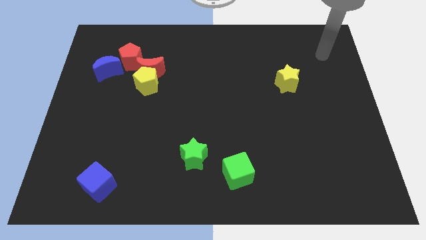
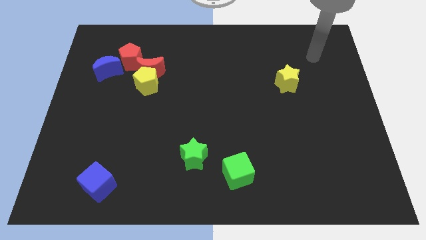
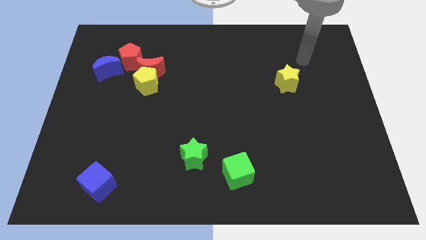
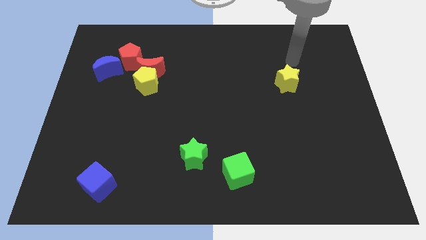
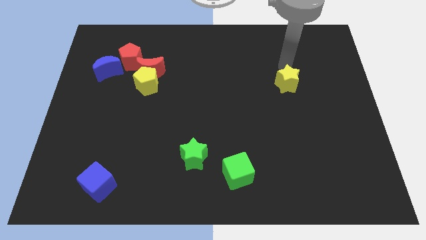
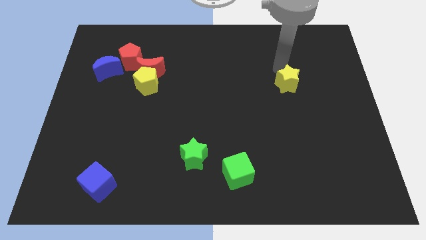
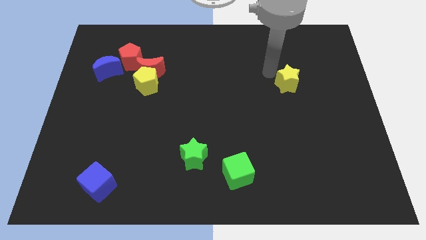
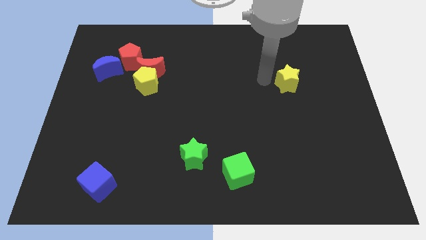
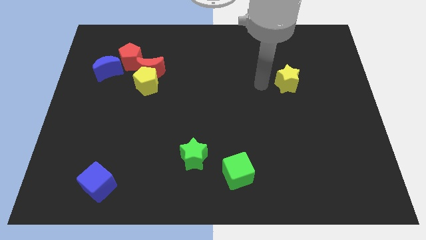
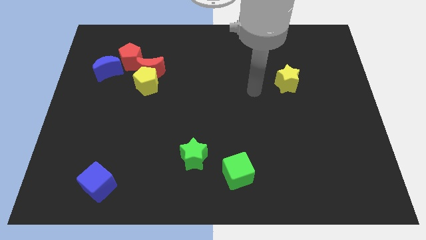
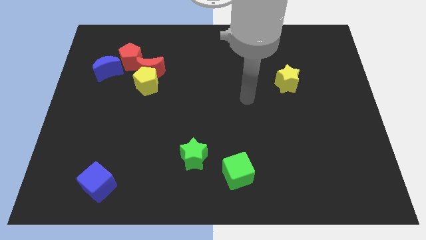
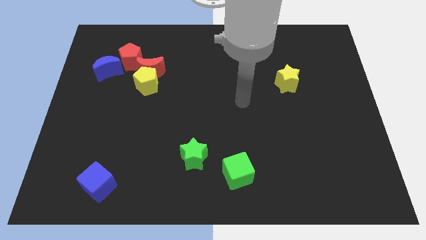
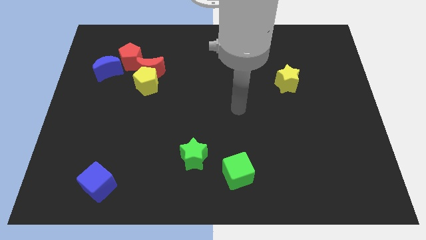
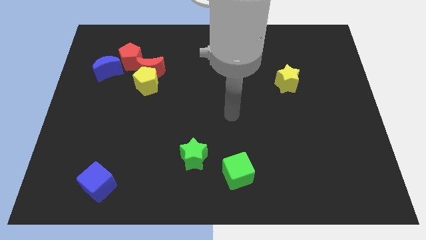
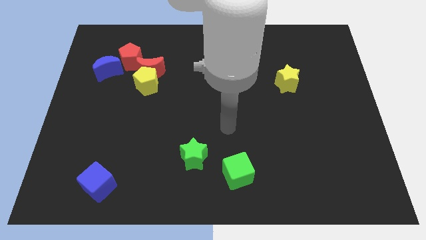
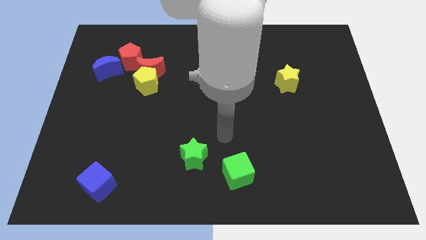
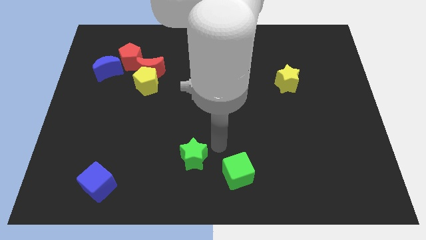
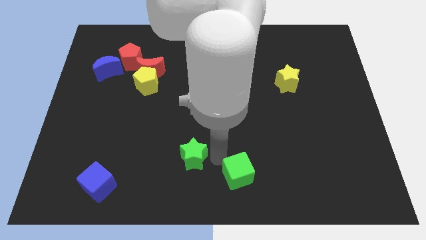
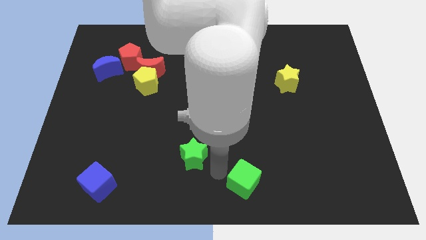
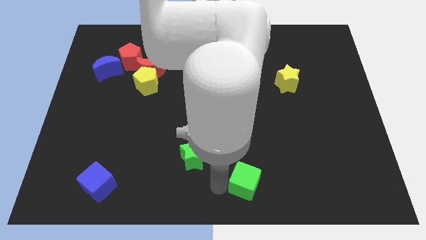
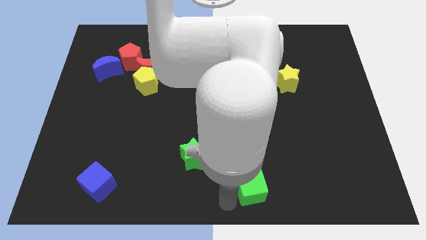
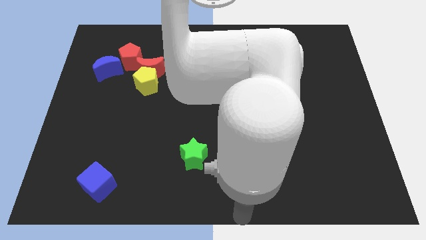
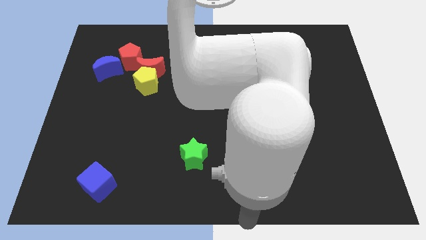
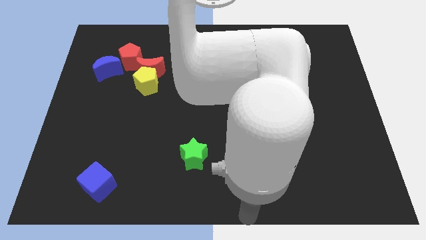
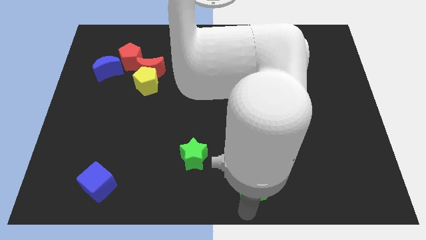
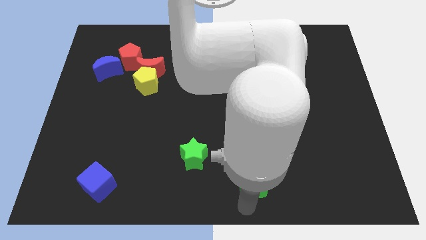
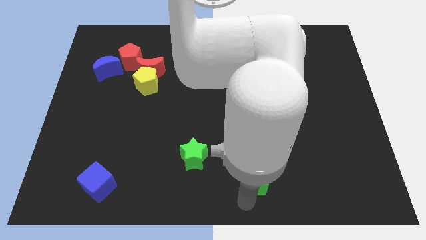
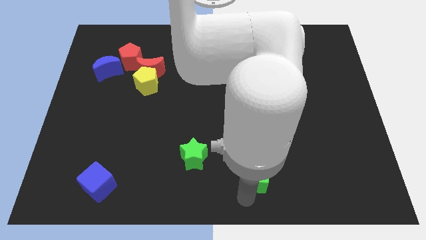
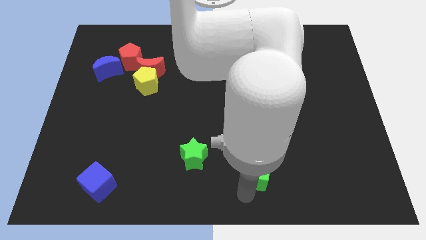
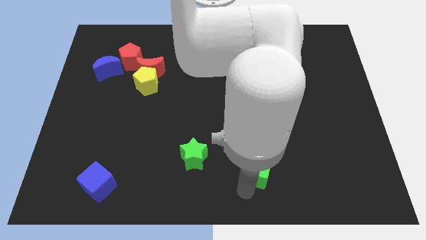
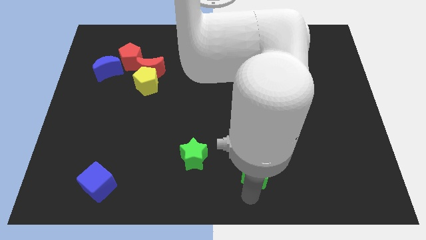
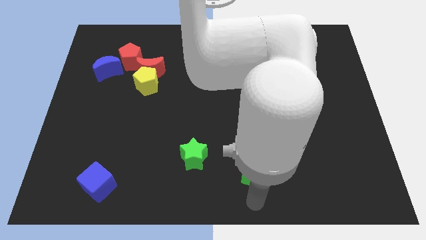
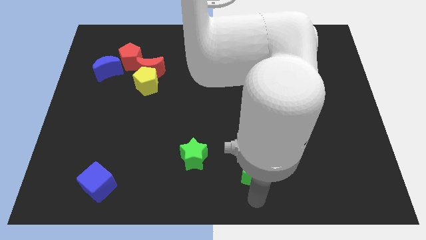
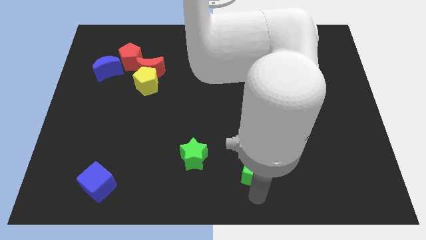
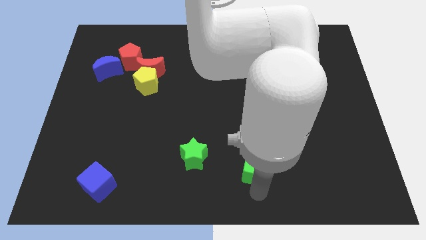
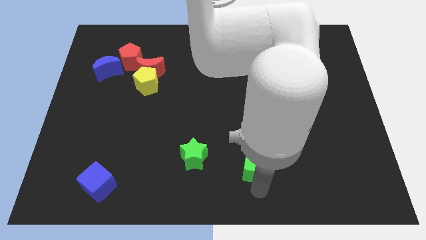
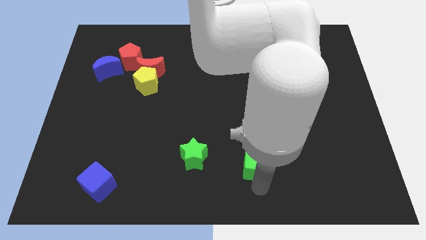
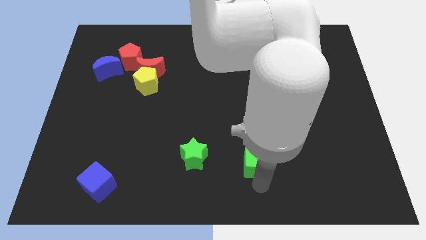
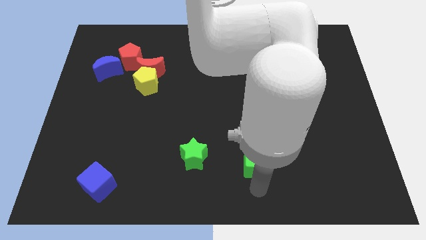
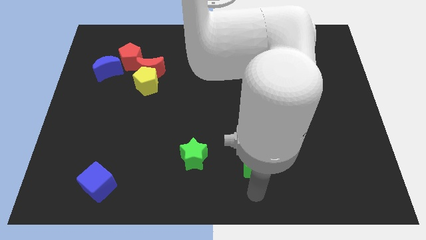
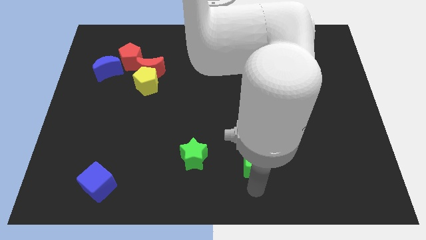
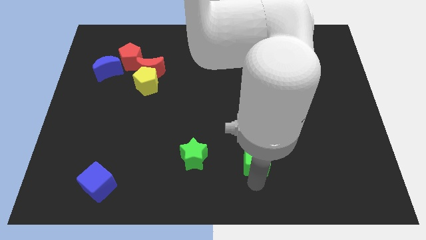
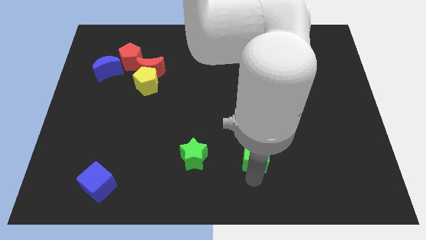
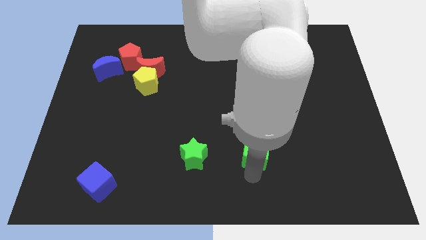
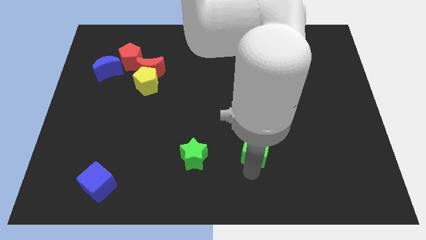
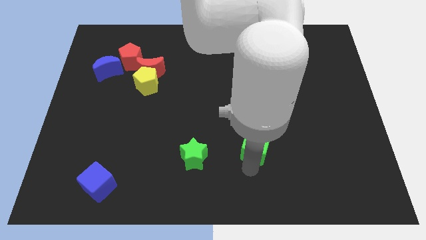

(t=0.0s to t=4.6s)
move the green cube somewhat up and right diagonally

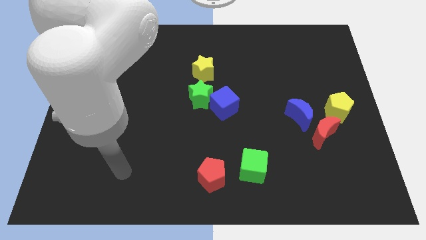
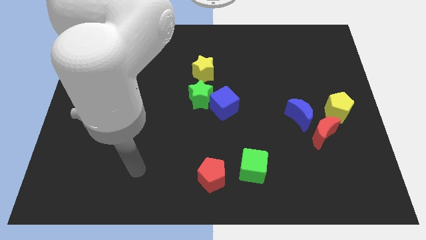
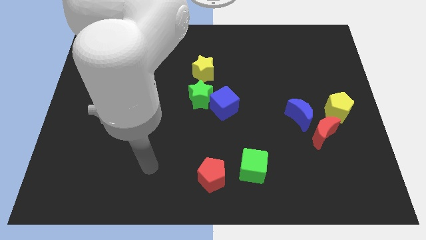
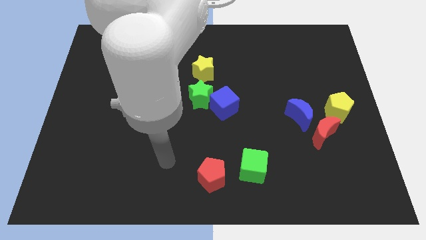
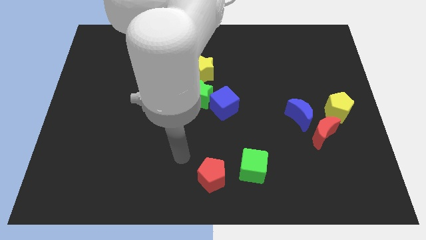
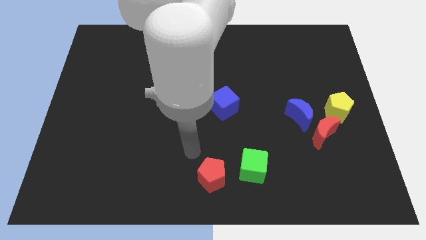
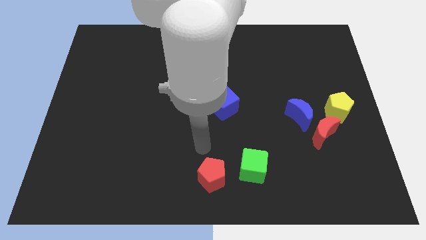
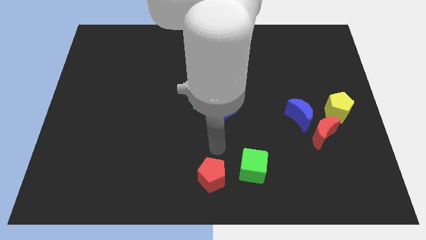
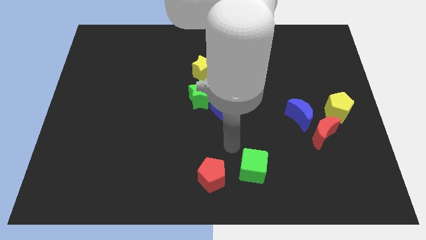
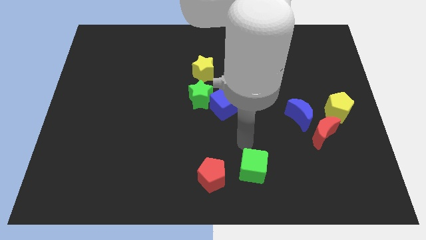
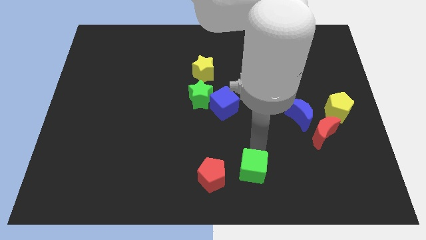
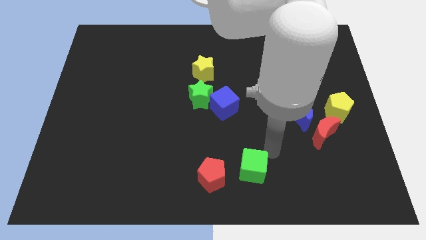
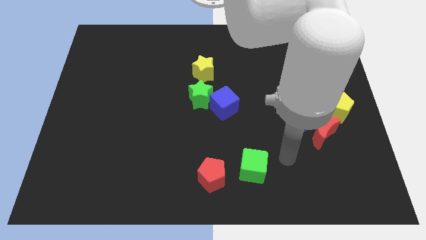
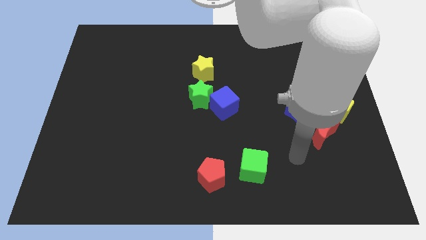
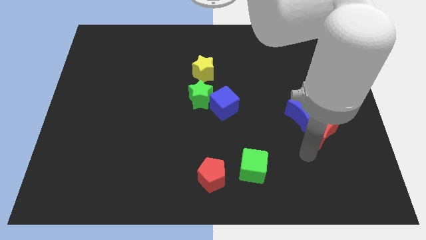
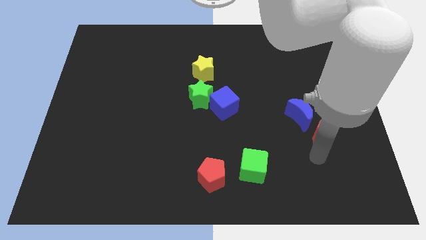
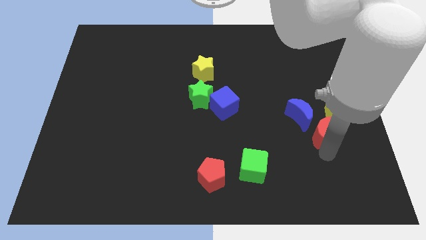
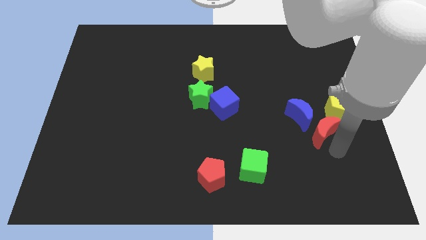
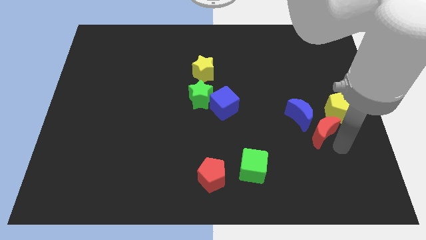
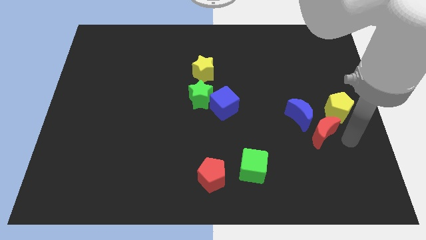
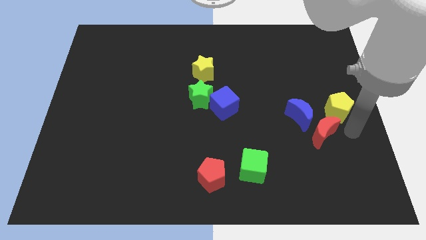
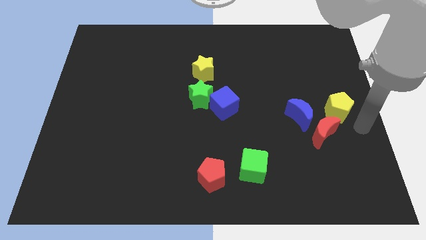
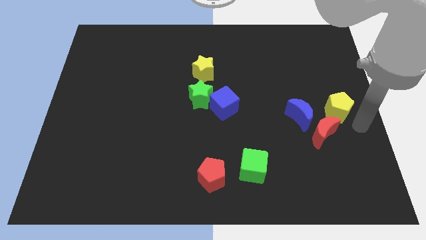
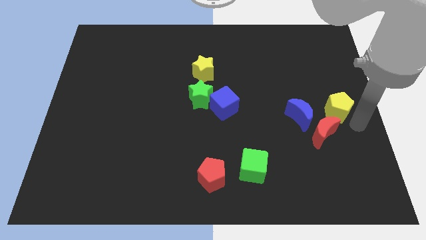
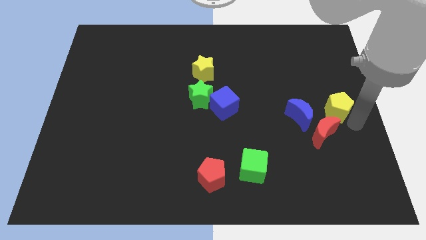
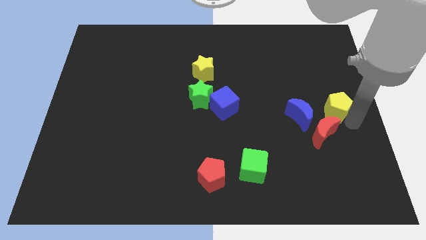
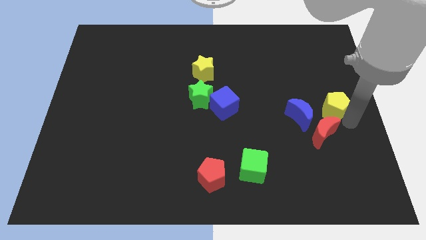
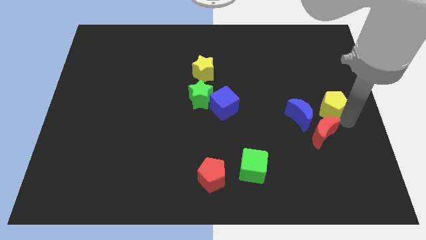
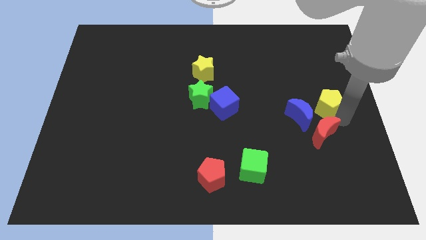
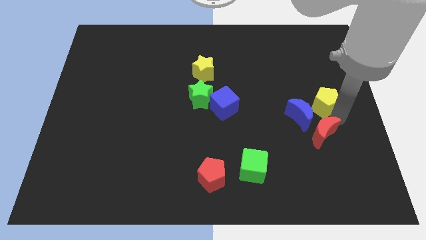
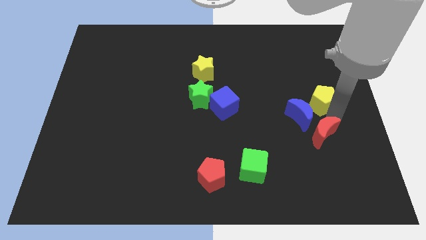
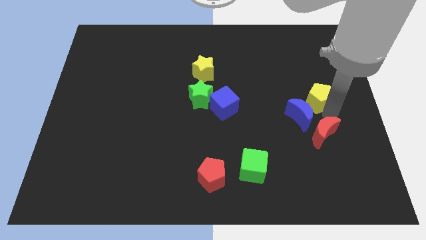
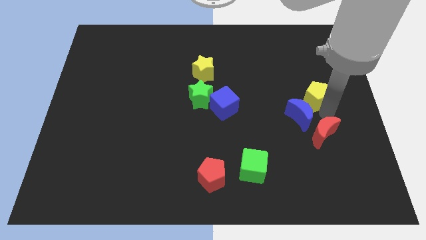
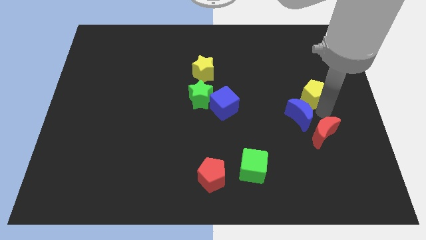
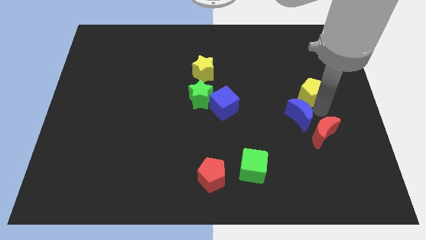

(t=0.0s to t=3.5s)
slightly slide the yellow pentagon up and then to the left
